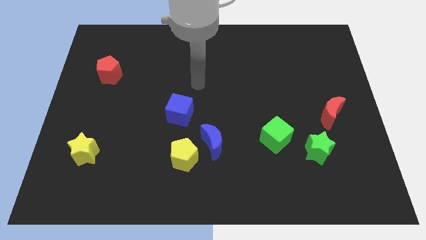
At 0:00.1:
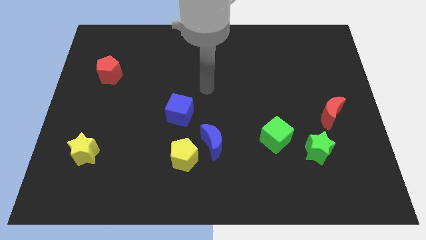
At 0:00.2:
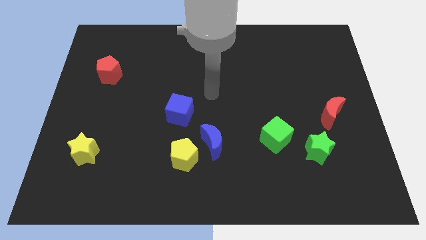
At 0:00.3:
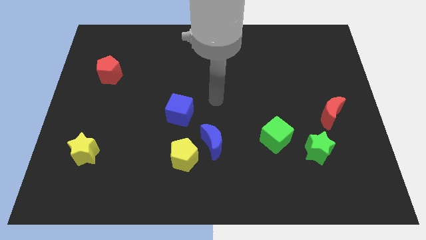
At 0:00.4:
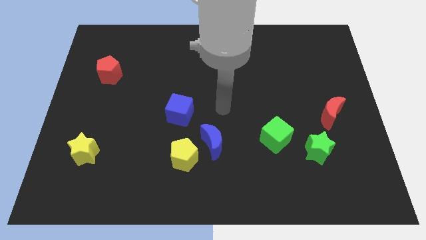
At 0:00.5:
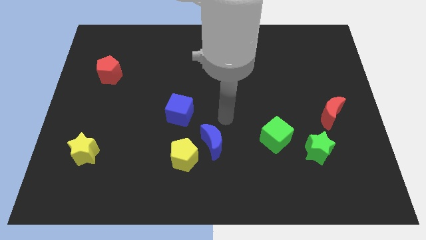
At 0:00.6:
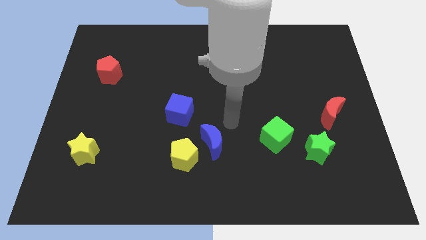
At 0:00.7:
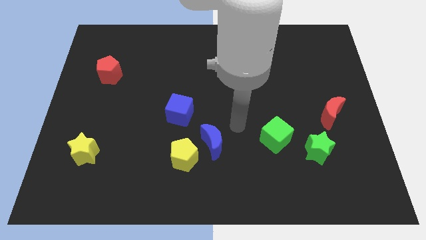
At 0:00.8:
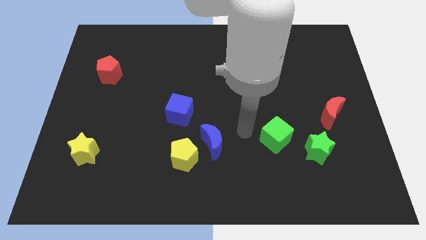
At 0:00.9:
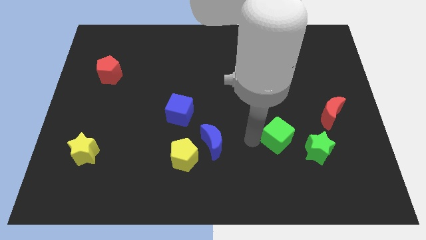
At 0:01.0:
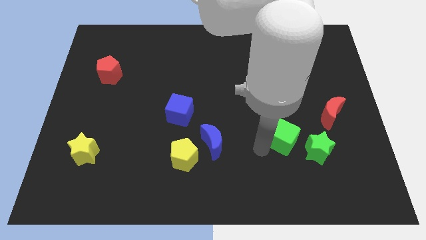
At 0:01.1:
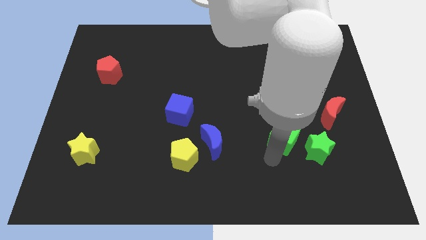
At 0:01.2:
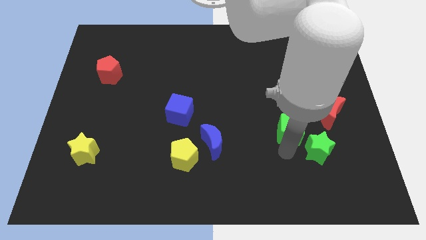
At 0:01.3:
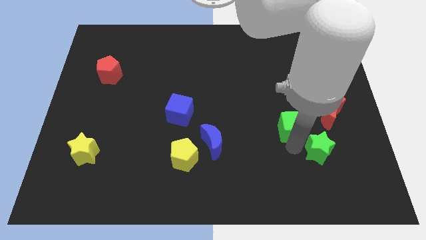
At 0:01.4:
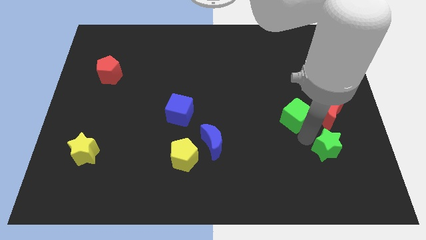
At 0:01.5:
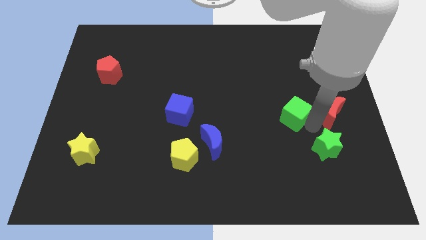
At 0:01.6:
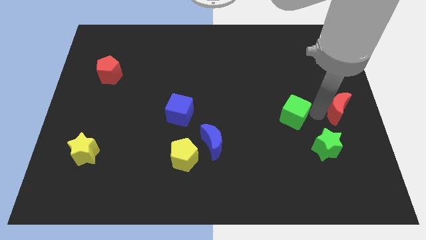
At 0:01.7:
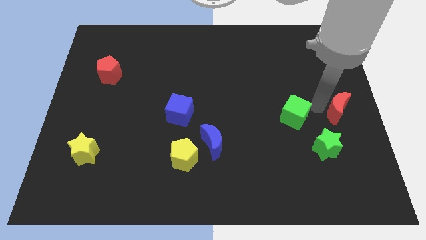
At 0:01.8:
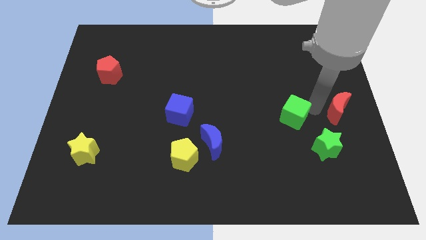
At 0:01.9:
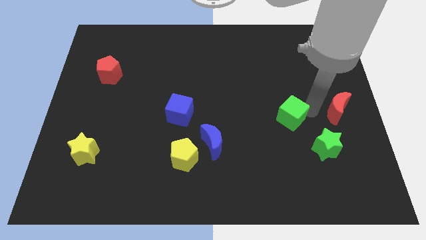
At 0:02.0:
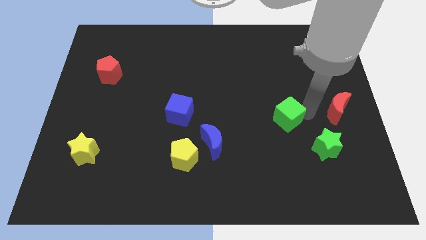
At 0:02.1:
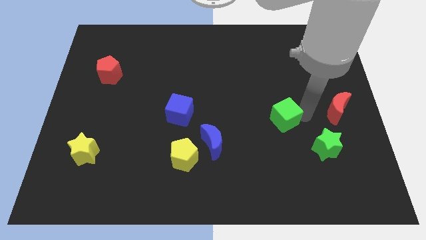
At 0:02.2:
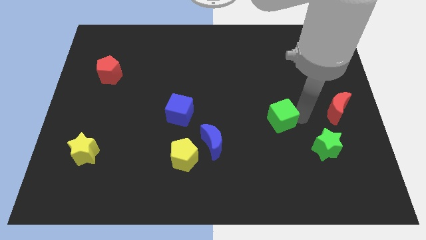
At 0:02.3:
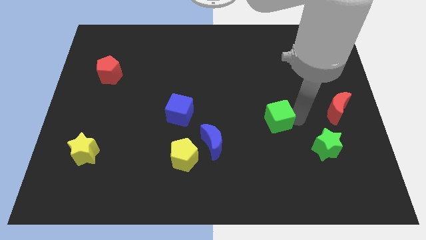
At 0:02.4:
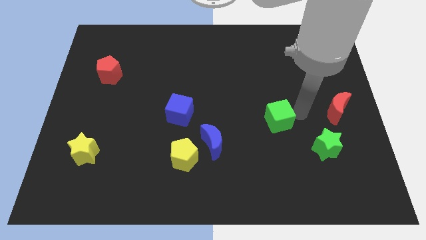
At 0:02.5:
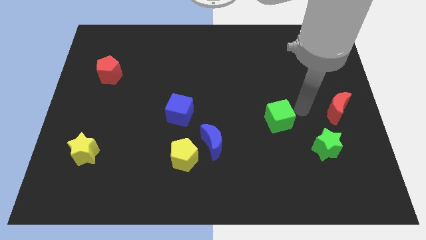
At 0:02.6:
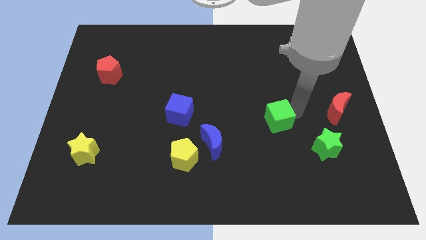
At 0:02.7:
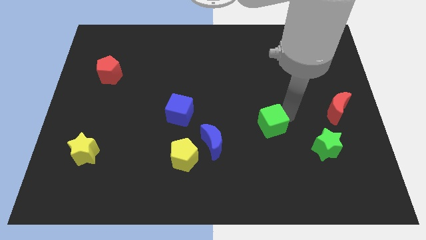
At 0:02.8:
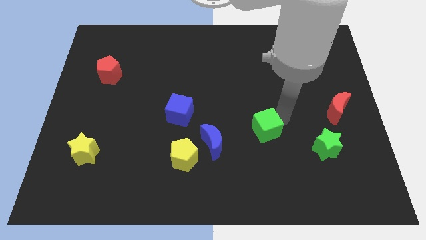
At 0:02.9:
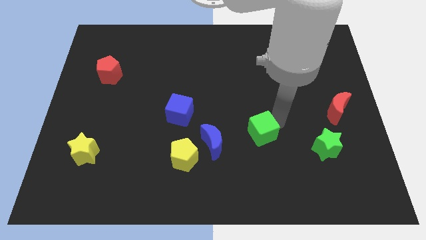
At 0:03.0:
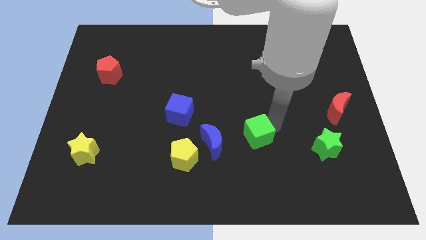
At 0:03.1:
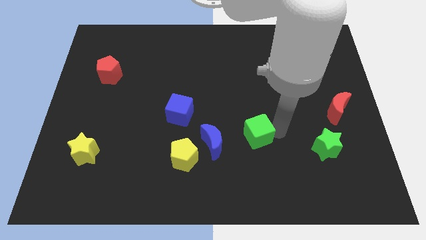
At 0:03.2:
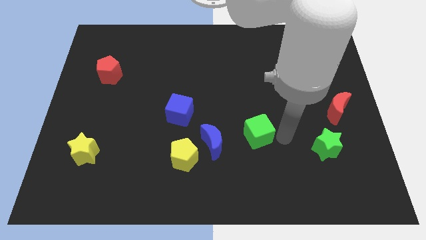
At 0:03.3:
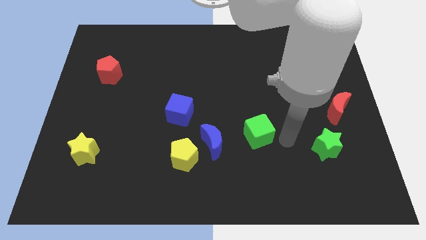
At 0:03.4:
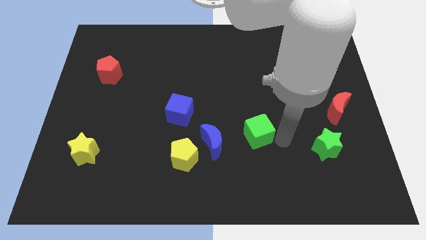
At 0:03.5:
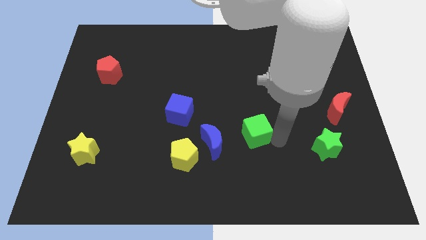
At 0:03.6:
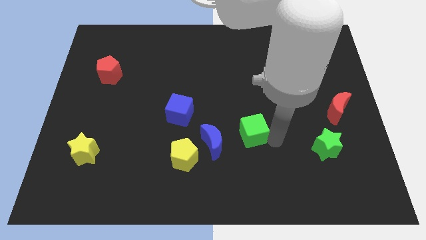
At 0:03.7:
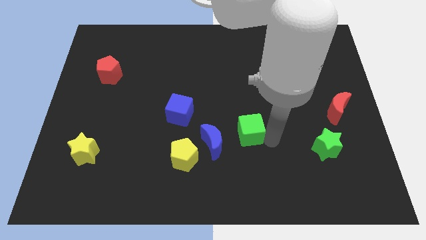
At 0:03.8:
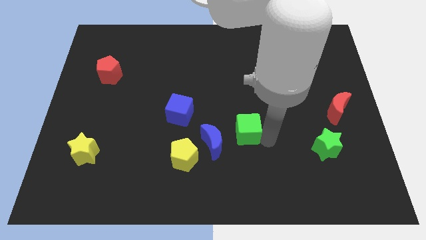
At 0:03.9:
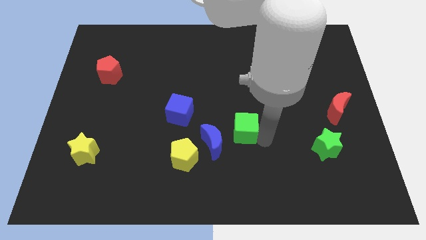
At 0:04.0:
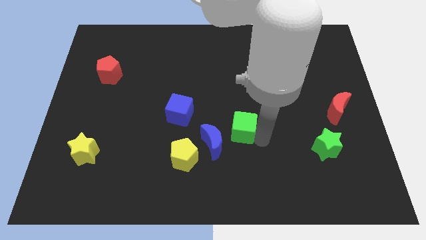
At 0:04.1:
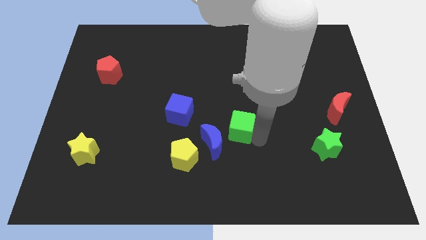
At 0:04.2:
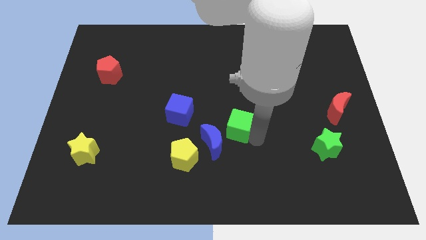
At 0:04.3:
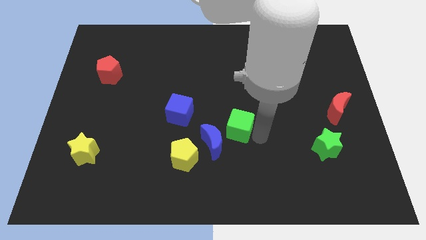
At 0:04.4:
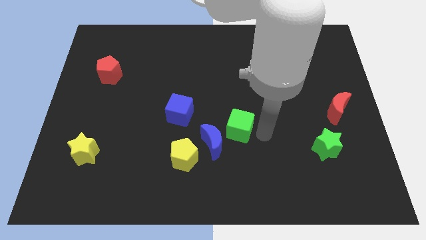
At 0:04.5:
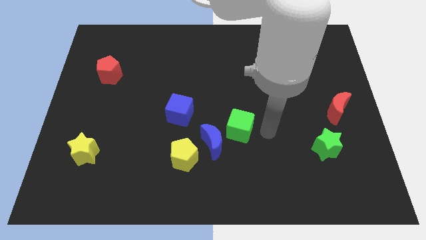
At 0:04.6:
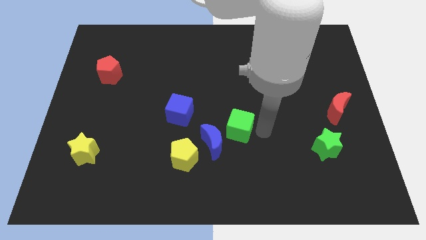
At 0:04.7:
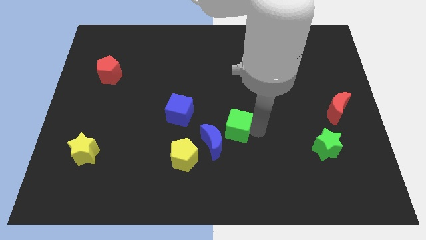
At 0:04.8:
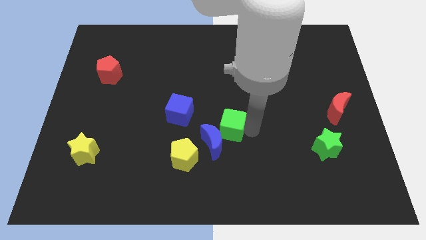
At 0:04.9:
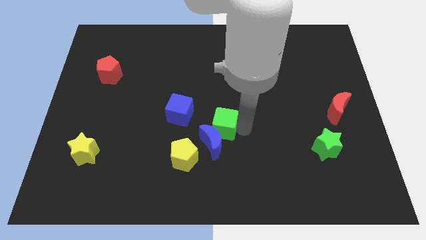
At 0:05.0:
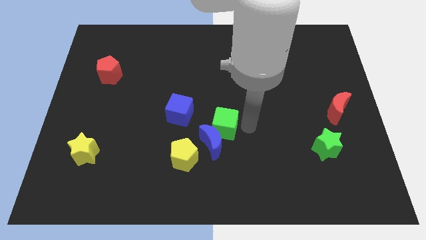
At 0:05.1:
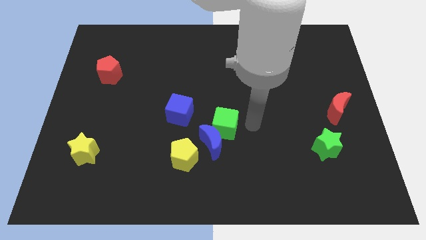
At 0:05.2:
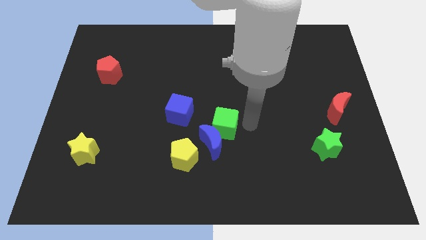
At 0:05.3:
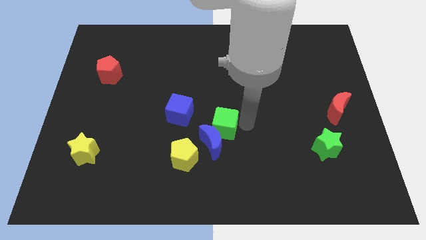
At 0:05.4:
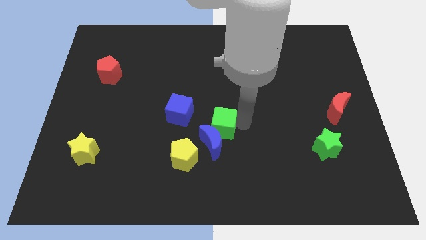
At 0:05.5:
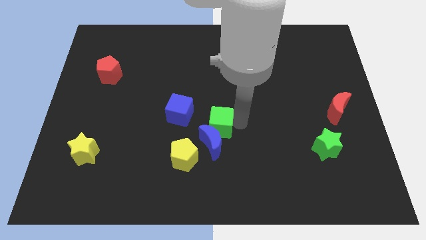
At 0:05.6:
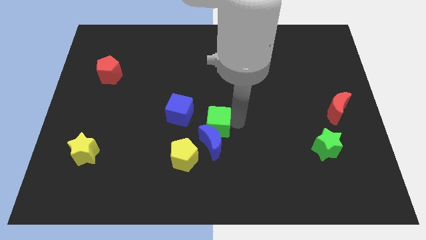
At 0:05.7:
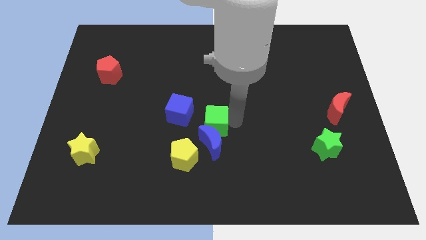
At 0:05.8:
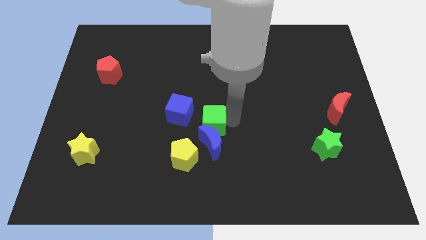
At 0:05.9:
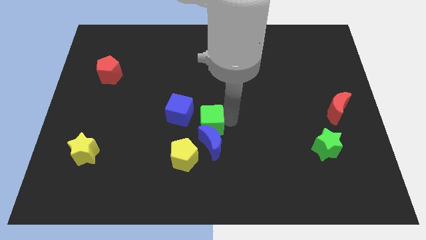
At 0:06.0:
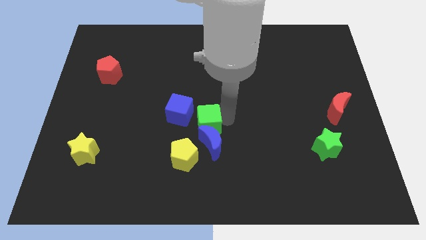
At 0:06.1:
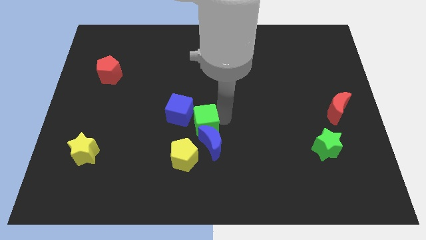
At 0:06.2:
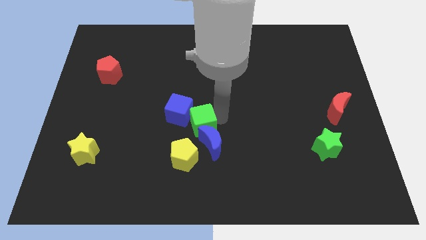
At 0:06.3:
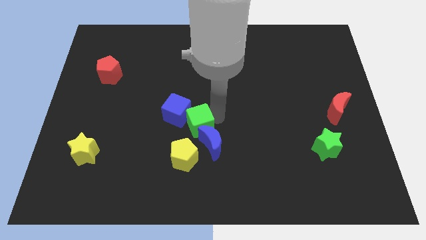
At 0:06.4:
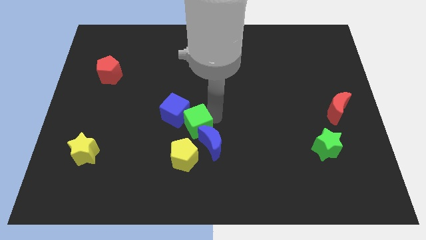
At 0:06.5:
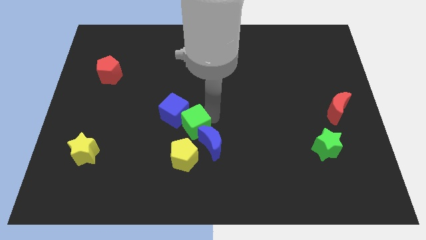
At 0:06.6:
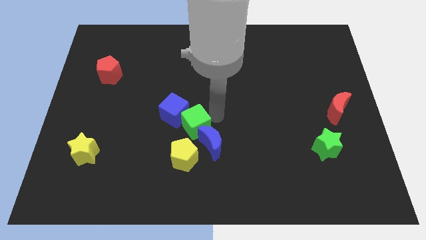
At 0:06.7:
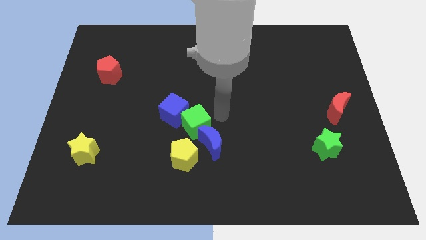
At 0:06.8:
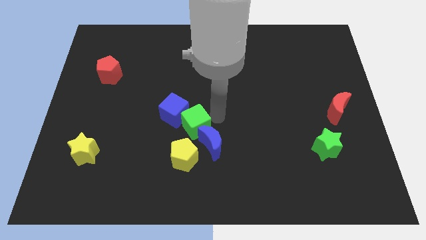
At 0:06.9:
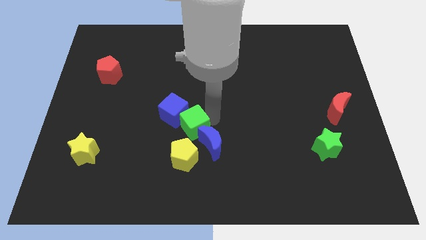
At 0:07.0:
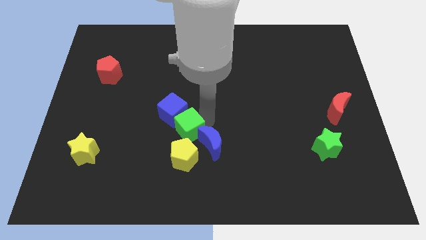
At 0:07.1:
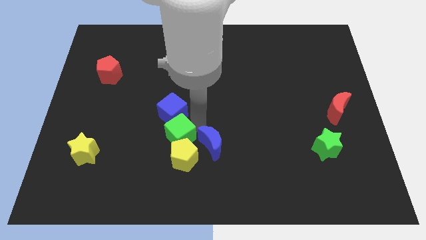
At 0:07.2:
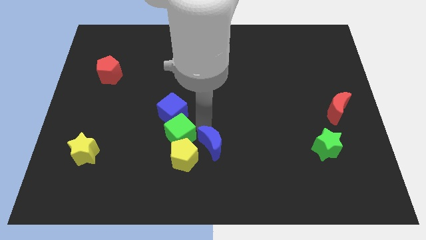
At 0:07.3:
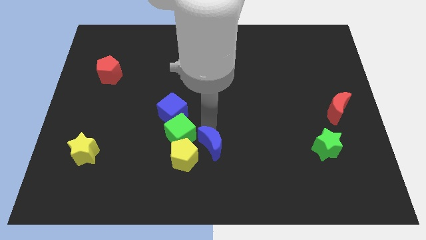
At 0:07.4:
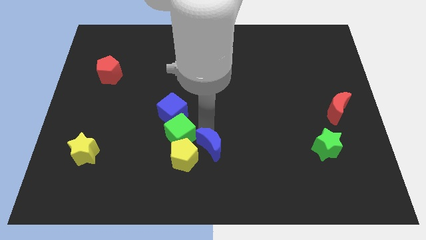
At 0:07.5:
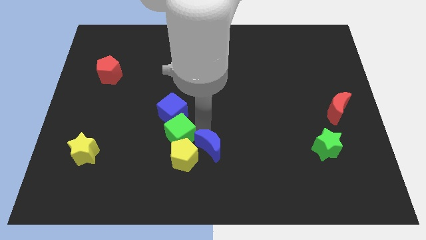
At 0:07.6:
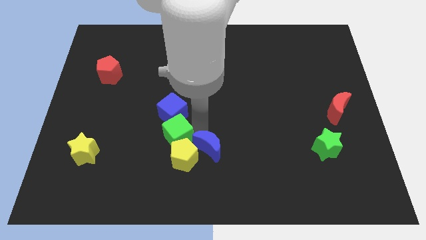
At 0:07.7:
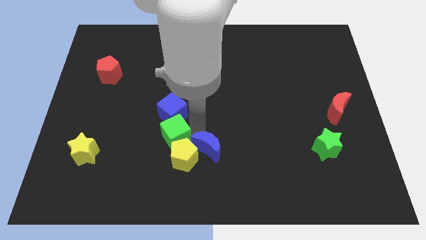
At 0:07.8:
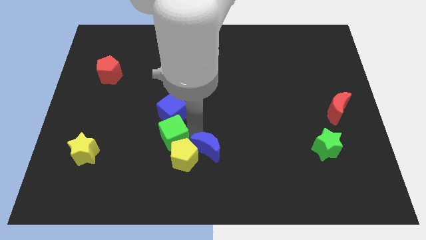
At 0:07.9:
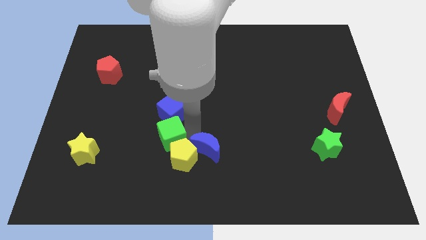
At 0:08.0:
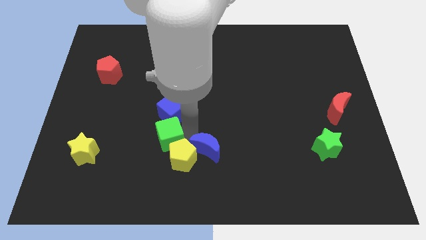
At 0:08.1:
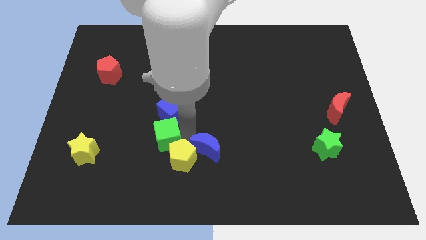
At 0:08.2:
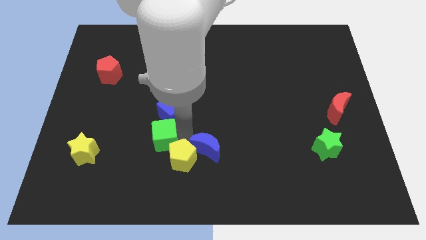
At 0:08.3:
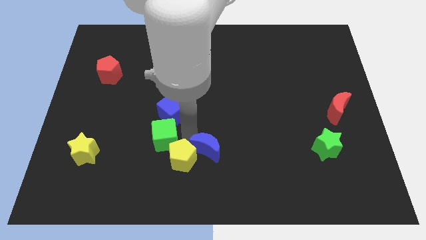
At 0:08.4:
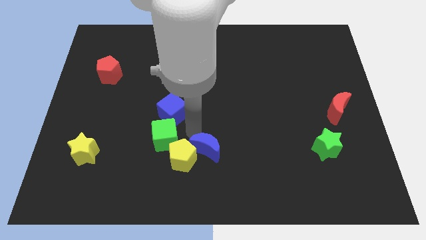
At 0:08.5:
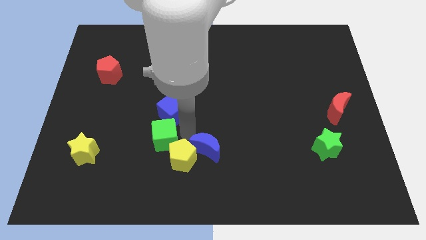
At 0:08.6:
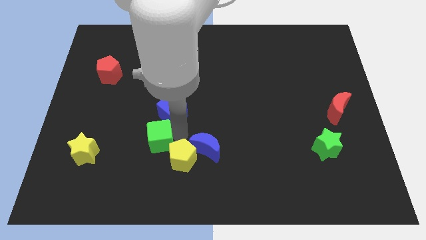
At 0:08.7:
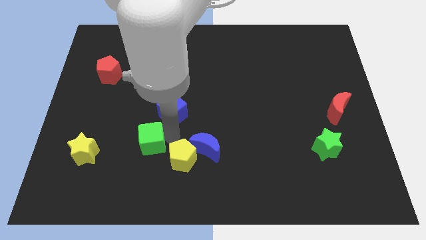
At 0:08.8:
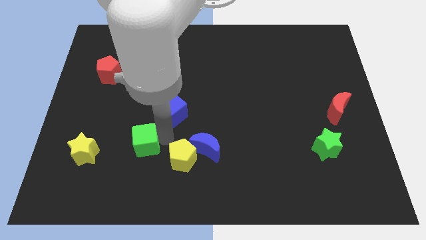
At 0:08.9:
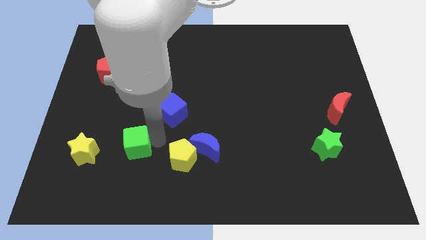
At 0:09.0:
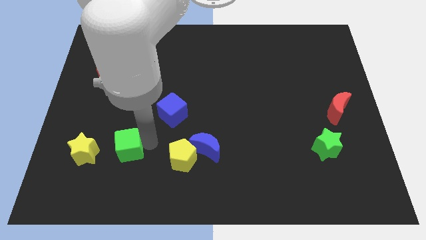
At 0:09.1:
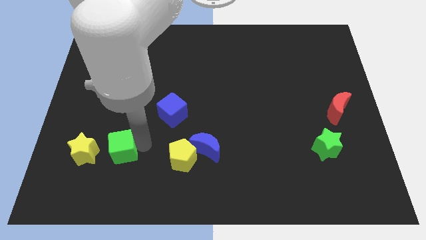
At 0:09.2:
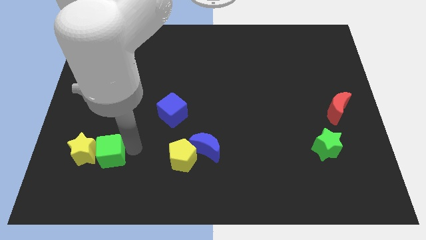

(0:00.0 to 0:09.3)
push the green cube to the yellow star
